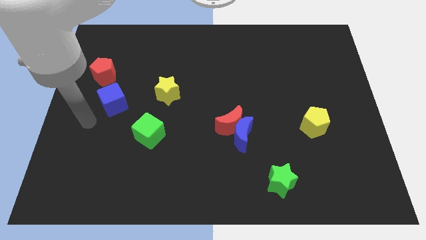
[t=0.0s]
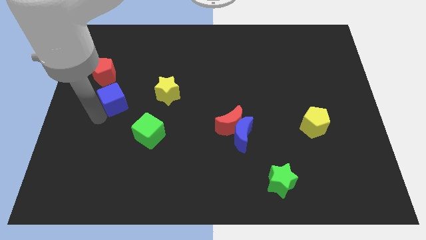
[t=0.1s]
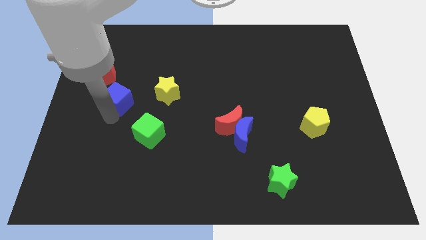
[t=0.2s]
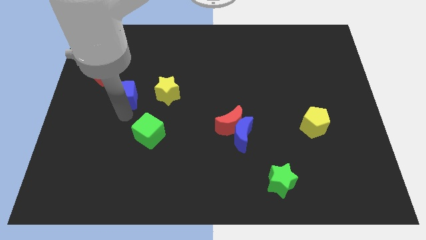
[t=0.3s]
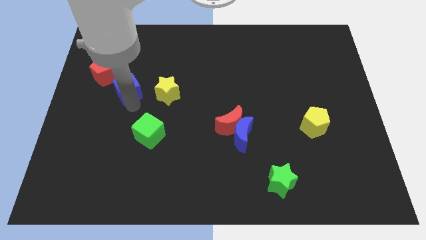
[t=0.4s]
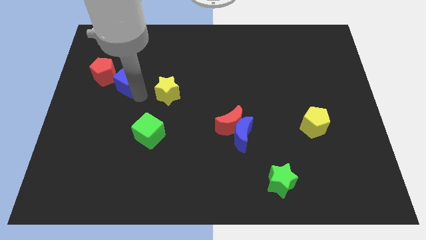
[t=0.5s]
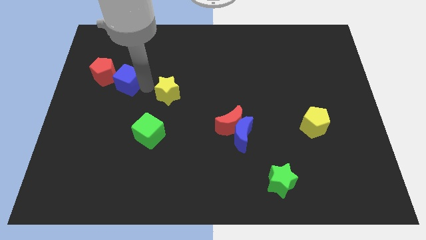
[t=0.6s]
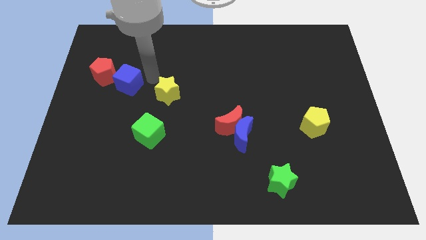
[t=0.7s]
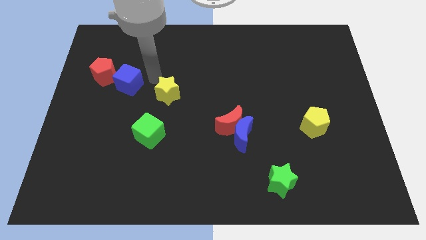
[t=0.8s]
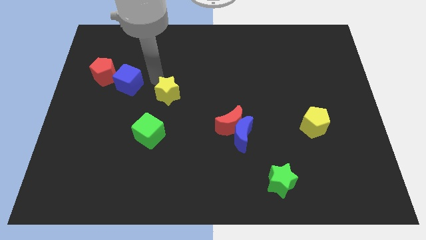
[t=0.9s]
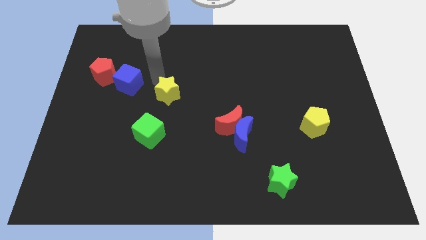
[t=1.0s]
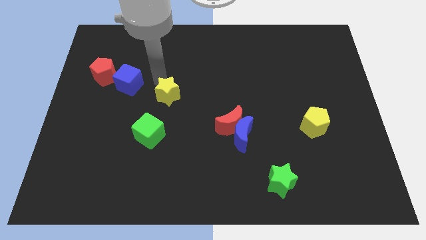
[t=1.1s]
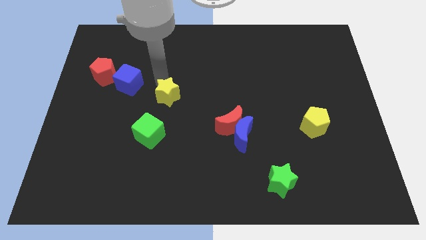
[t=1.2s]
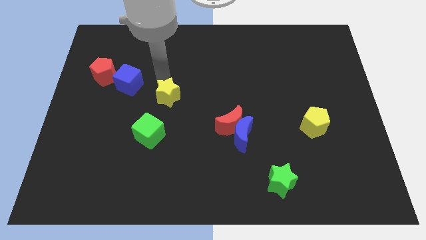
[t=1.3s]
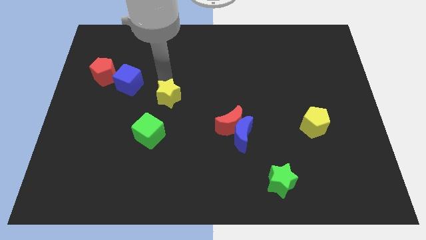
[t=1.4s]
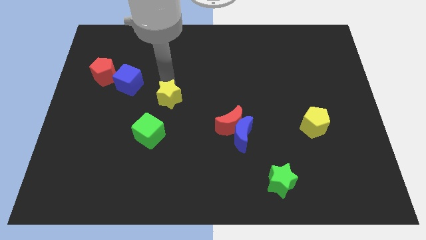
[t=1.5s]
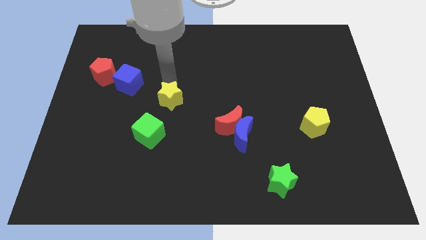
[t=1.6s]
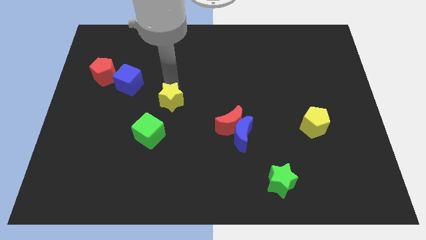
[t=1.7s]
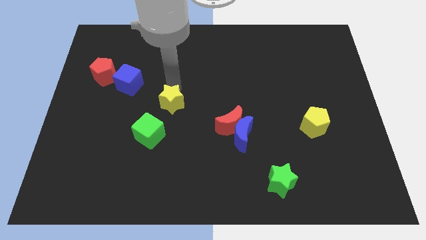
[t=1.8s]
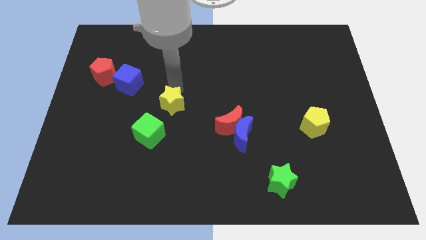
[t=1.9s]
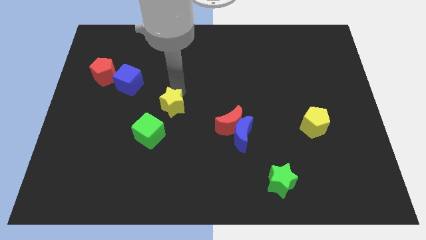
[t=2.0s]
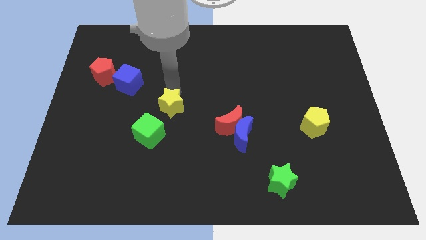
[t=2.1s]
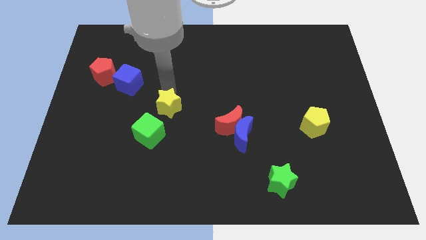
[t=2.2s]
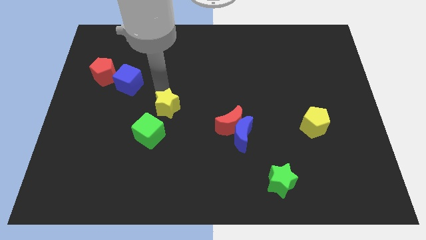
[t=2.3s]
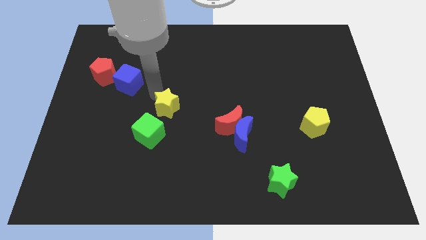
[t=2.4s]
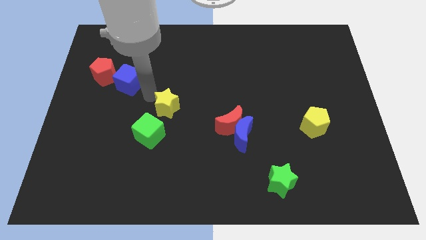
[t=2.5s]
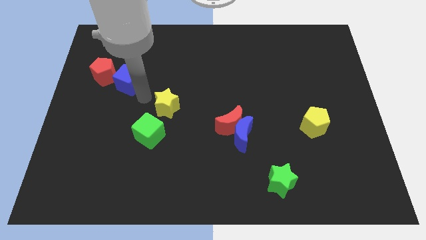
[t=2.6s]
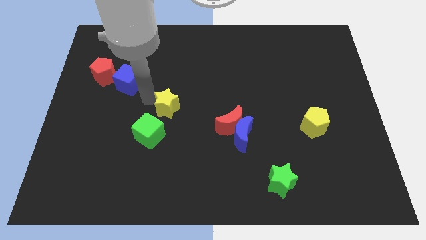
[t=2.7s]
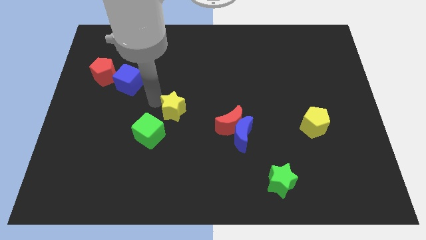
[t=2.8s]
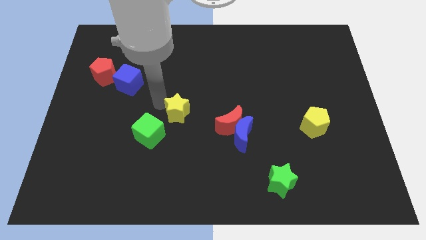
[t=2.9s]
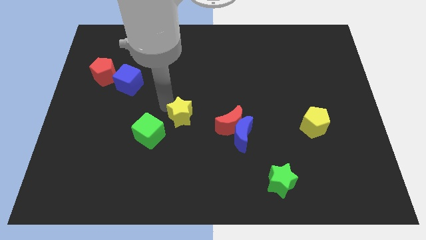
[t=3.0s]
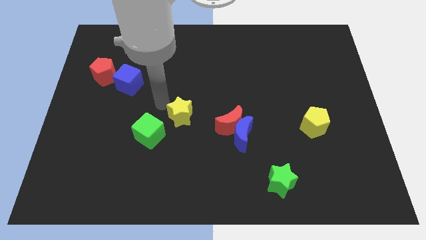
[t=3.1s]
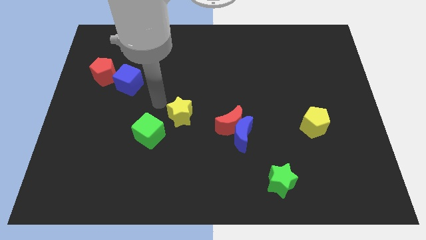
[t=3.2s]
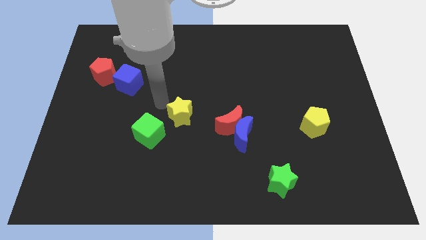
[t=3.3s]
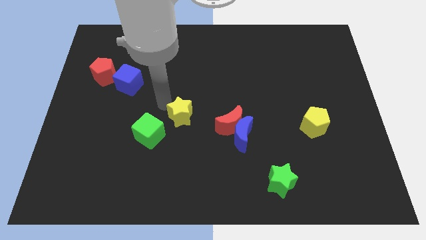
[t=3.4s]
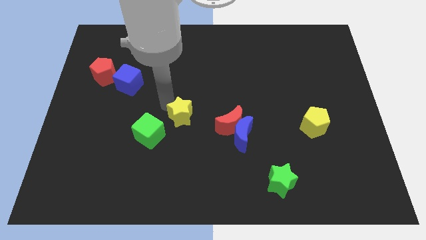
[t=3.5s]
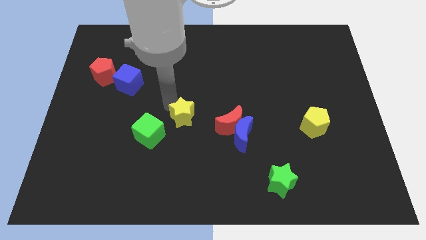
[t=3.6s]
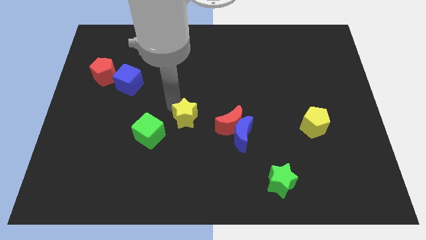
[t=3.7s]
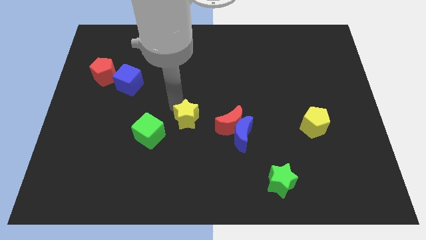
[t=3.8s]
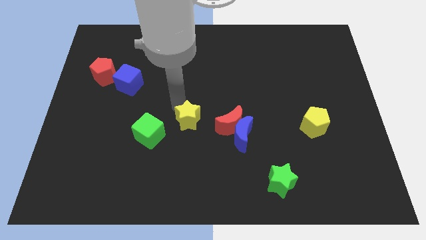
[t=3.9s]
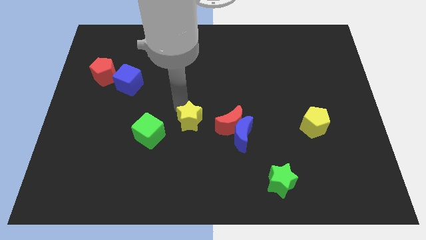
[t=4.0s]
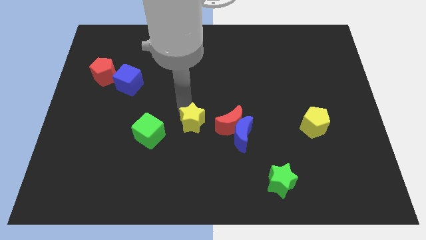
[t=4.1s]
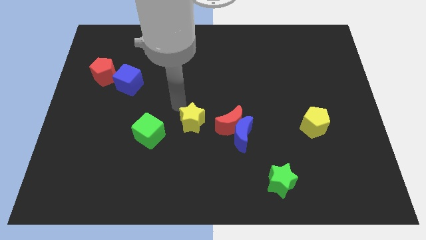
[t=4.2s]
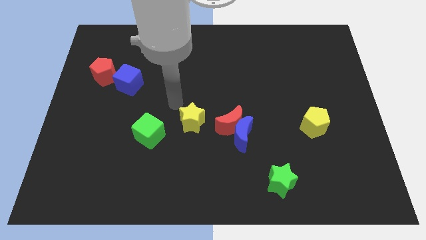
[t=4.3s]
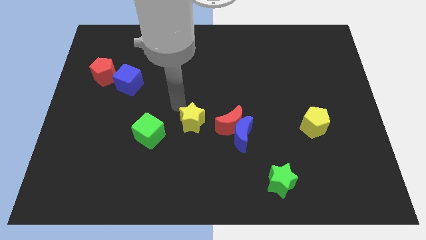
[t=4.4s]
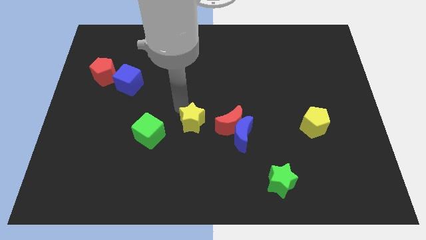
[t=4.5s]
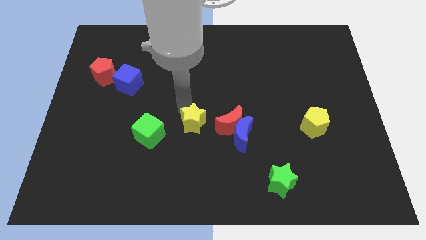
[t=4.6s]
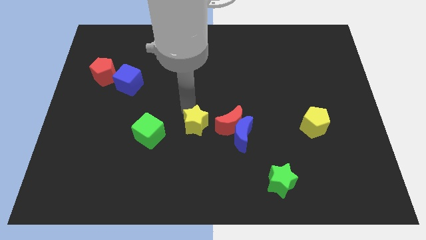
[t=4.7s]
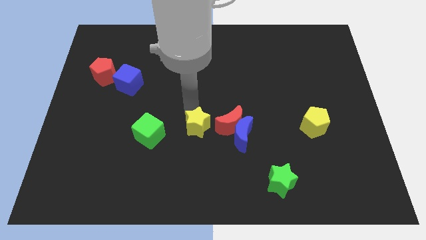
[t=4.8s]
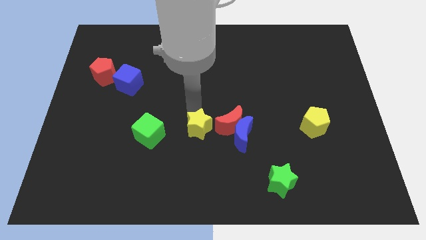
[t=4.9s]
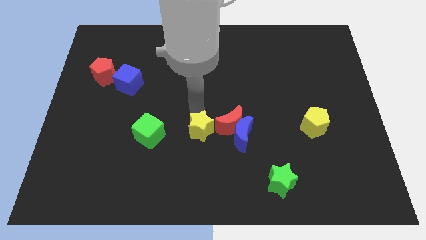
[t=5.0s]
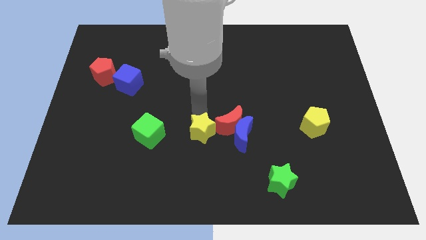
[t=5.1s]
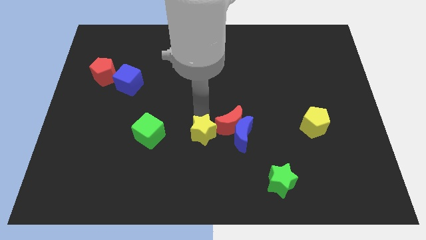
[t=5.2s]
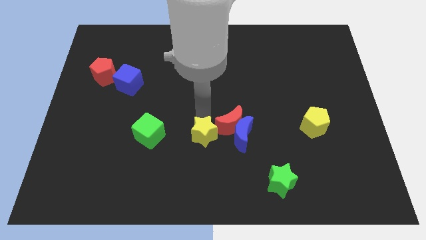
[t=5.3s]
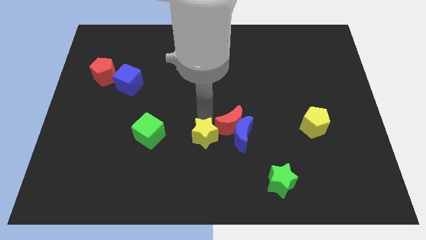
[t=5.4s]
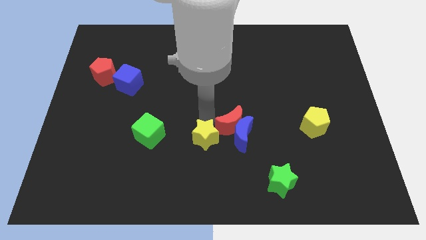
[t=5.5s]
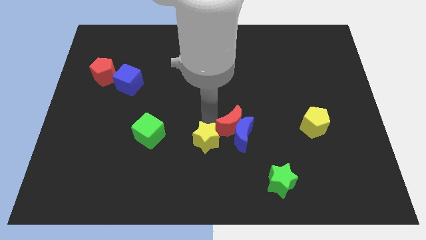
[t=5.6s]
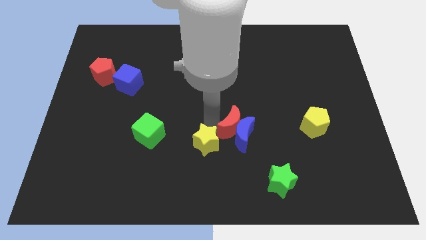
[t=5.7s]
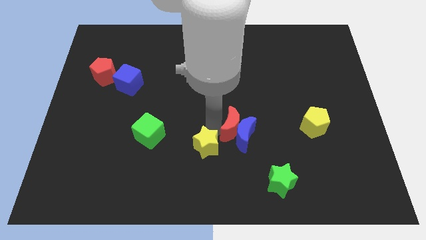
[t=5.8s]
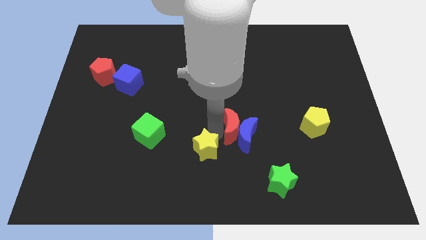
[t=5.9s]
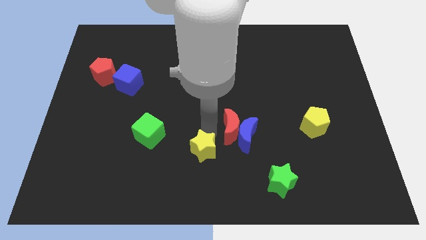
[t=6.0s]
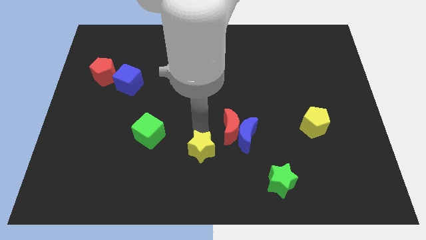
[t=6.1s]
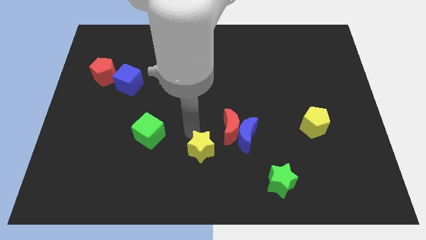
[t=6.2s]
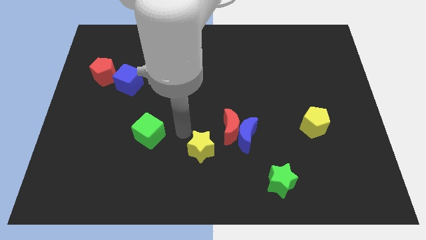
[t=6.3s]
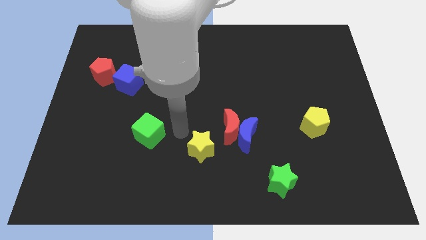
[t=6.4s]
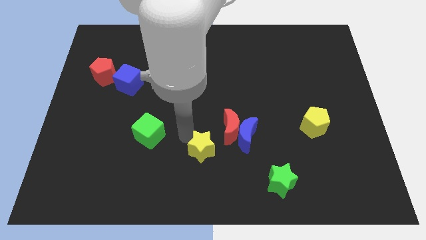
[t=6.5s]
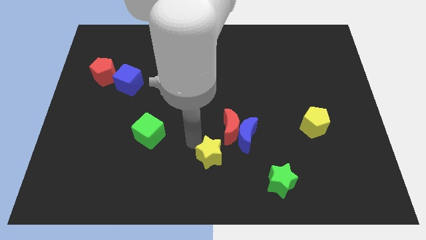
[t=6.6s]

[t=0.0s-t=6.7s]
slide the yellow star to the bottom of the red moon

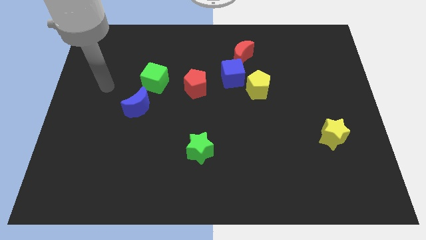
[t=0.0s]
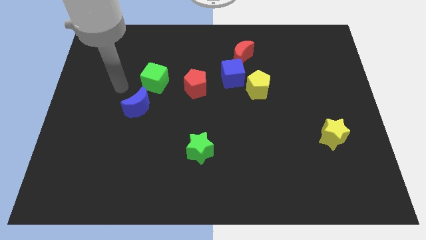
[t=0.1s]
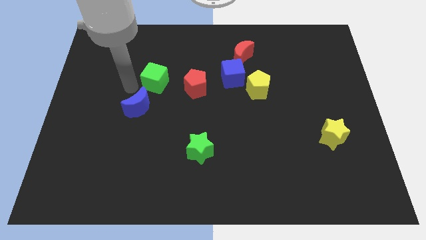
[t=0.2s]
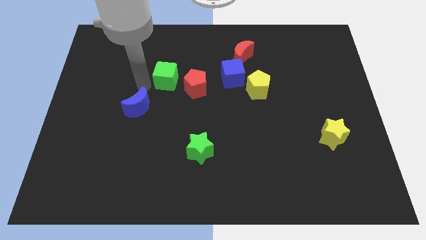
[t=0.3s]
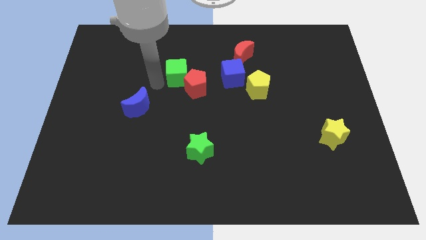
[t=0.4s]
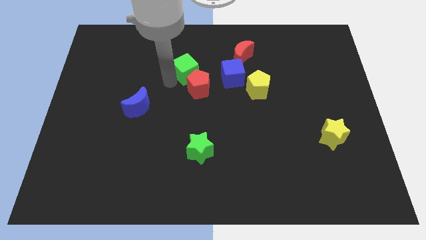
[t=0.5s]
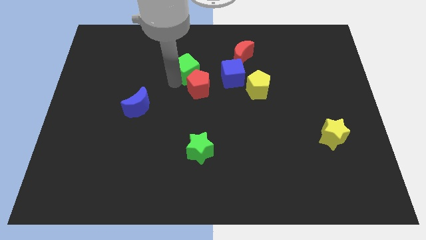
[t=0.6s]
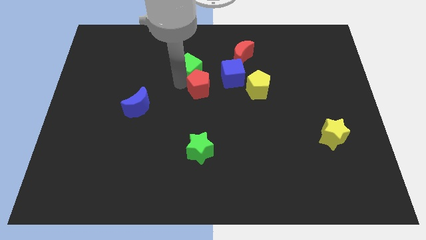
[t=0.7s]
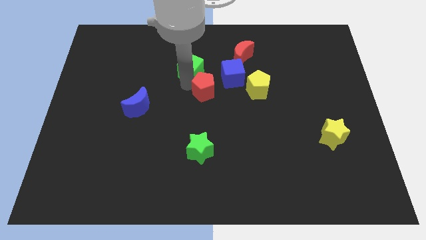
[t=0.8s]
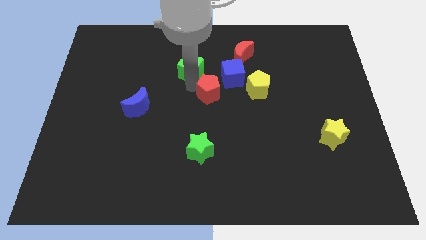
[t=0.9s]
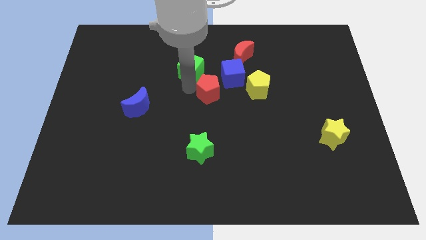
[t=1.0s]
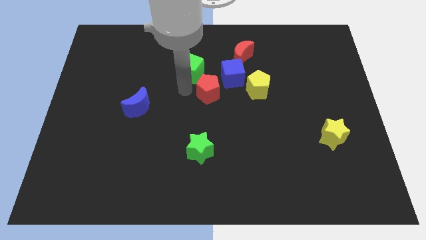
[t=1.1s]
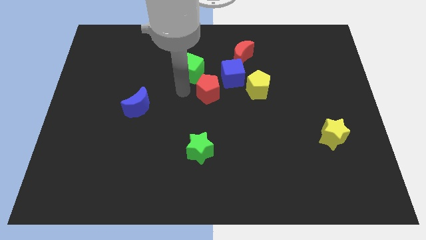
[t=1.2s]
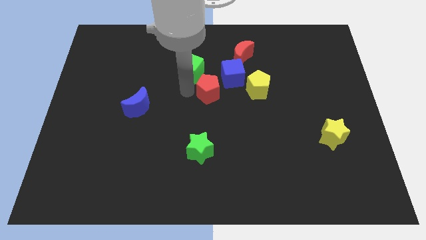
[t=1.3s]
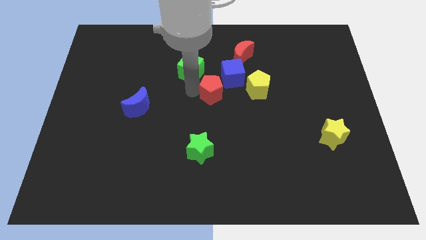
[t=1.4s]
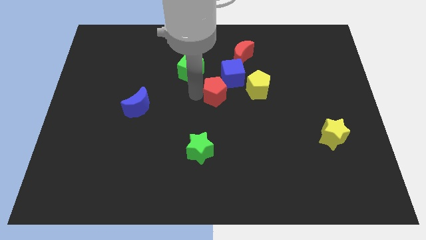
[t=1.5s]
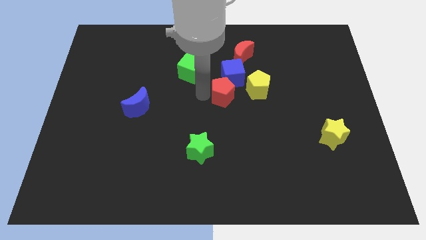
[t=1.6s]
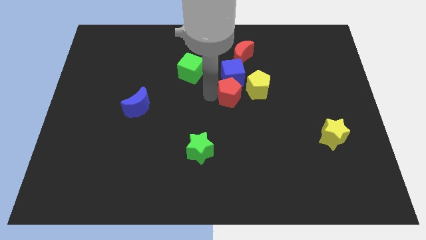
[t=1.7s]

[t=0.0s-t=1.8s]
slide the red pentagon below the red moon
